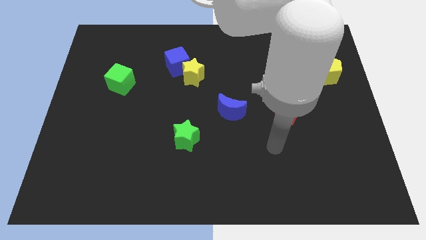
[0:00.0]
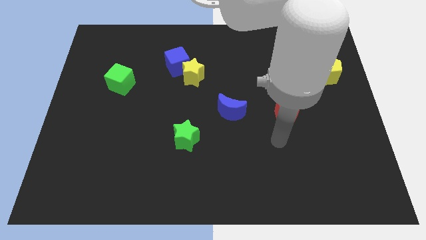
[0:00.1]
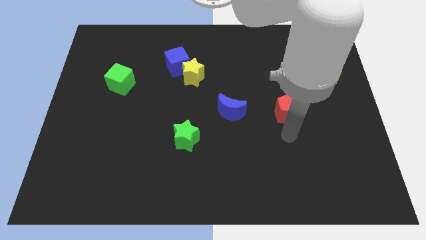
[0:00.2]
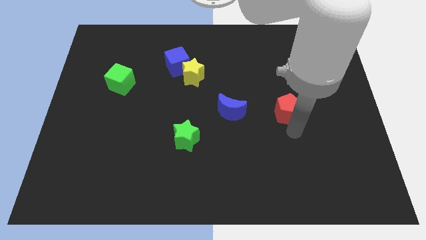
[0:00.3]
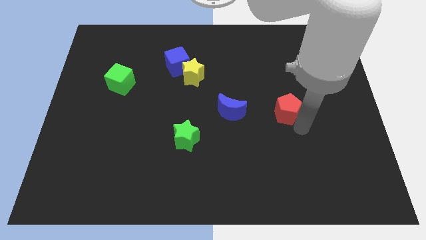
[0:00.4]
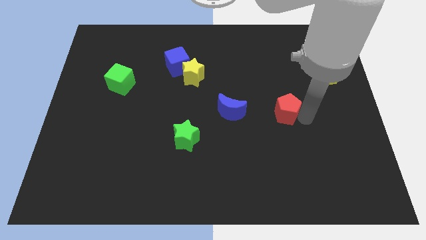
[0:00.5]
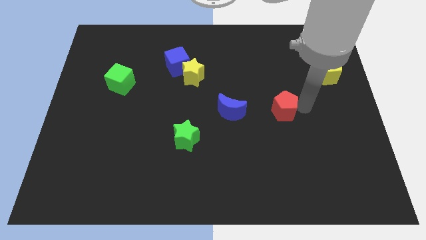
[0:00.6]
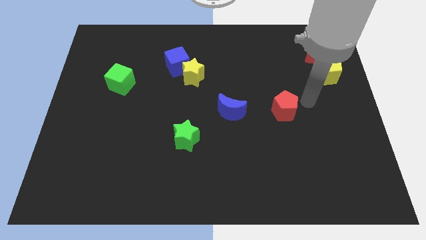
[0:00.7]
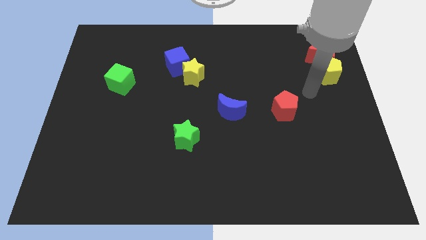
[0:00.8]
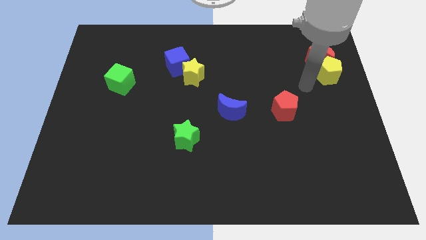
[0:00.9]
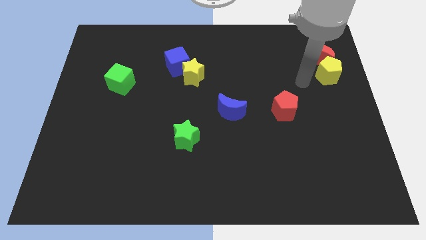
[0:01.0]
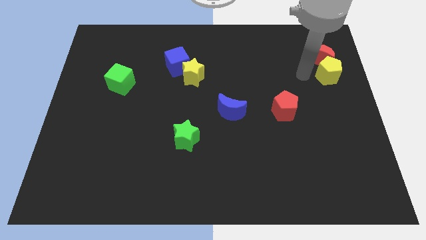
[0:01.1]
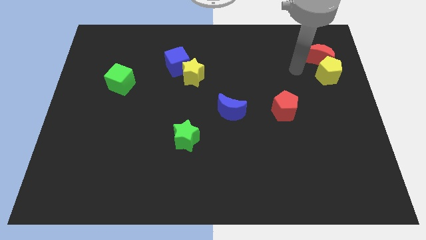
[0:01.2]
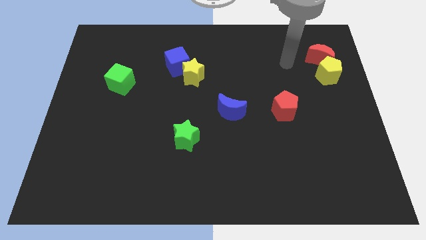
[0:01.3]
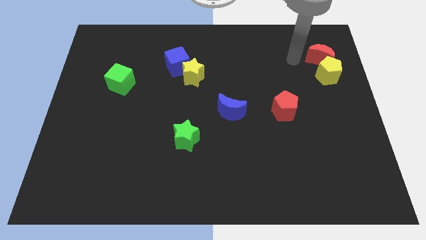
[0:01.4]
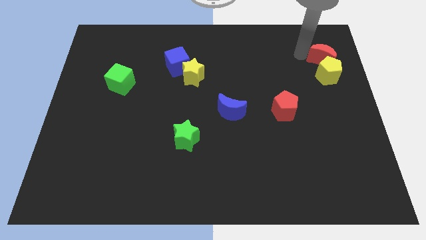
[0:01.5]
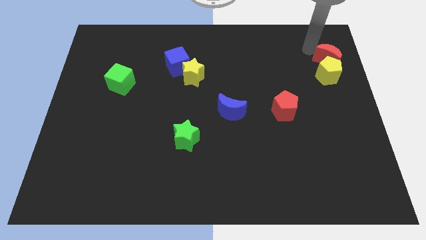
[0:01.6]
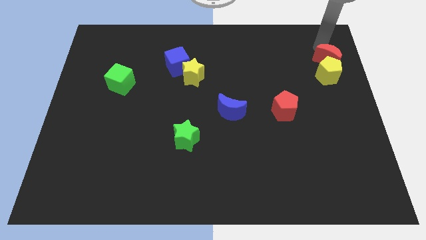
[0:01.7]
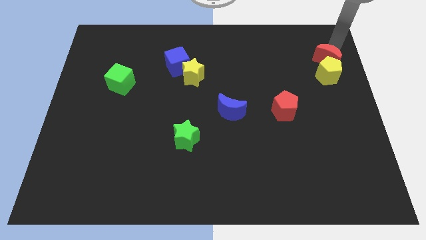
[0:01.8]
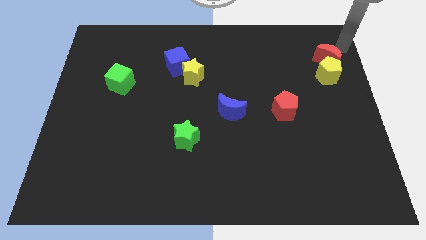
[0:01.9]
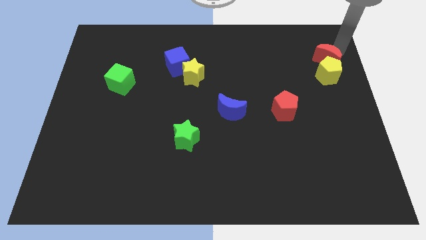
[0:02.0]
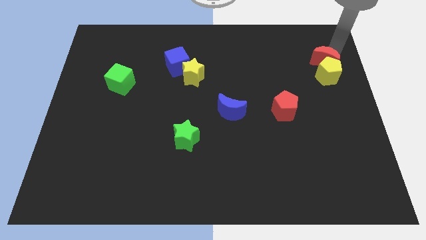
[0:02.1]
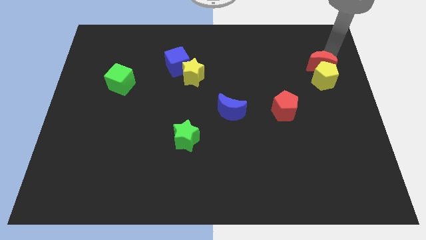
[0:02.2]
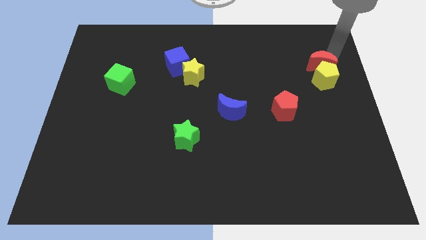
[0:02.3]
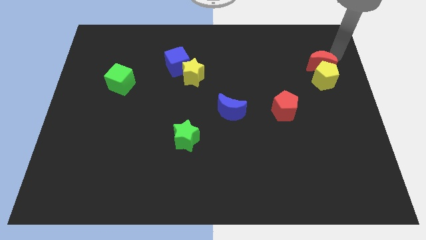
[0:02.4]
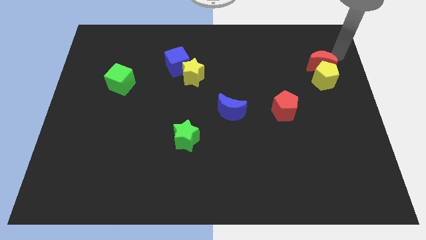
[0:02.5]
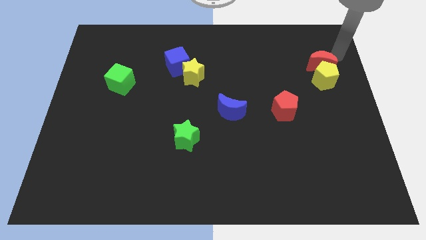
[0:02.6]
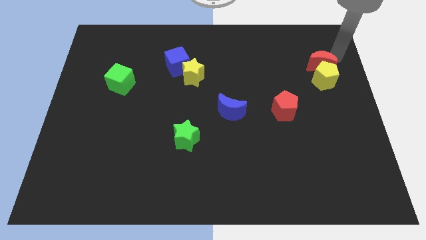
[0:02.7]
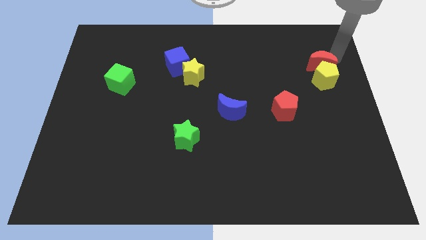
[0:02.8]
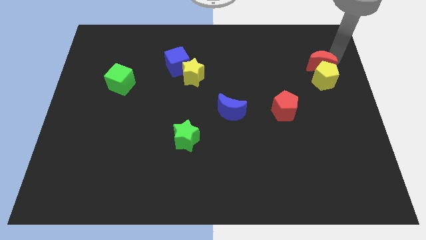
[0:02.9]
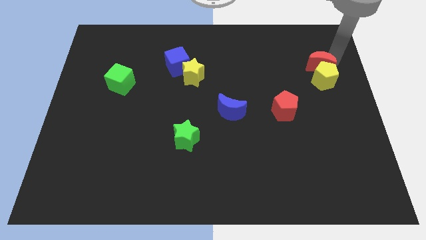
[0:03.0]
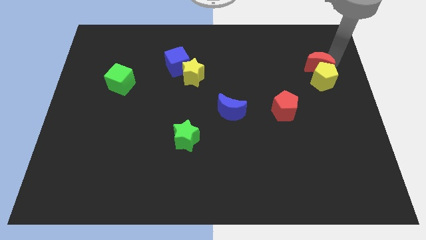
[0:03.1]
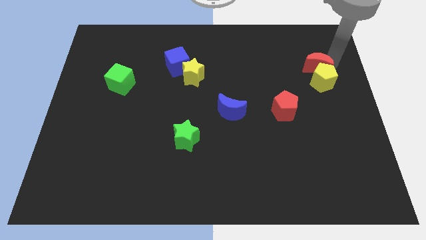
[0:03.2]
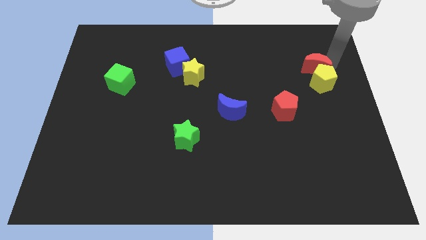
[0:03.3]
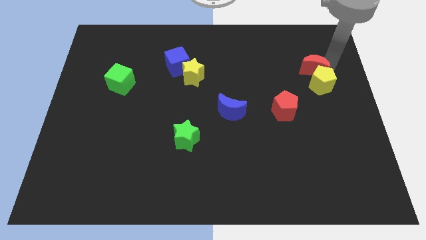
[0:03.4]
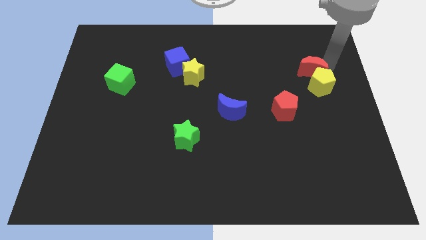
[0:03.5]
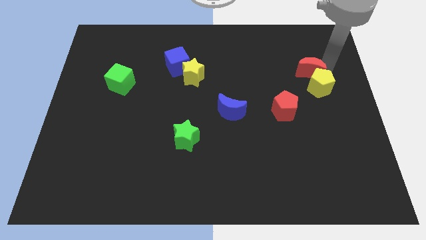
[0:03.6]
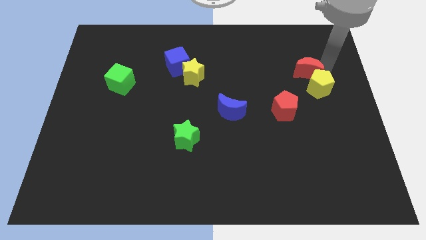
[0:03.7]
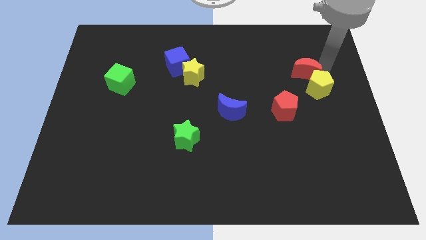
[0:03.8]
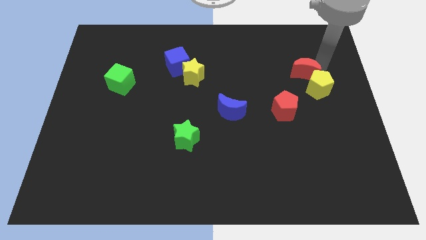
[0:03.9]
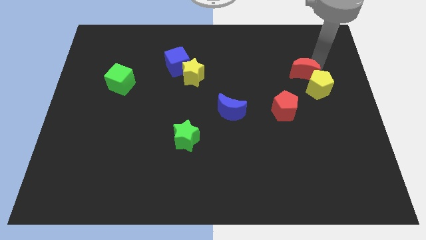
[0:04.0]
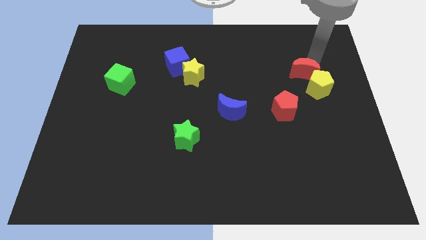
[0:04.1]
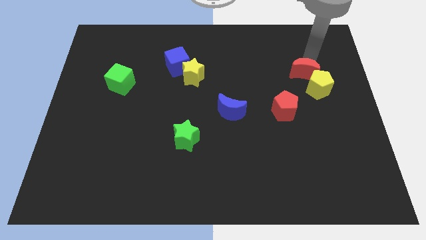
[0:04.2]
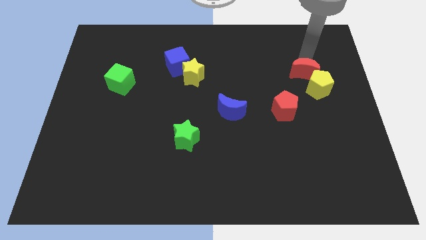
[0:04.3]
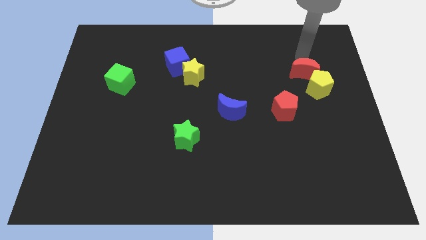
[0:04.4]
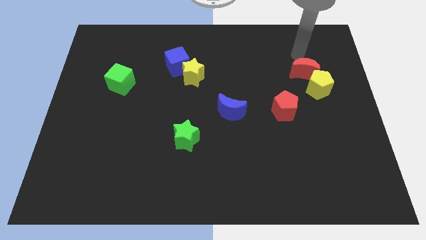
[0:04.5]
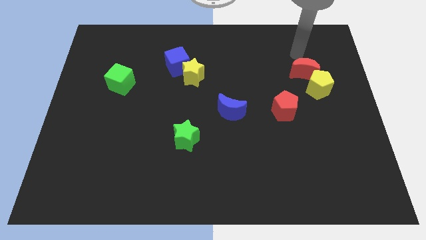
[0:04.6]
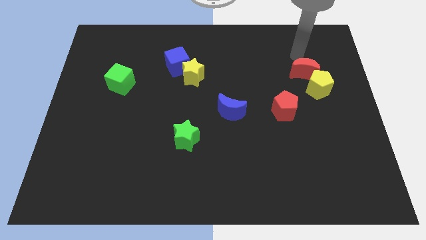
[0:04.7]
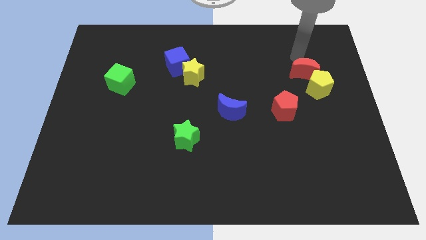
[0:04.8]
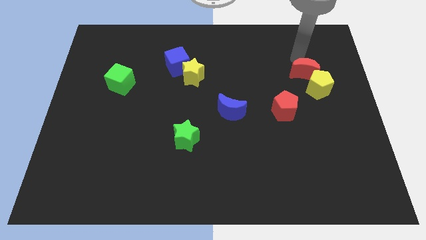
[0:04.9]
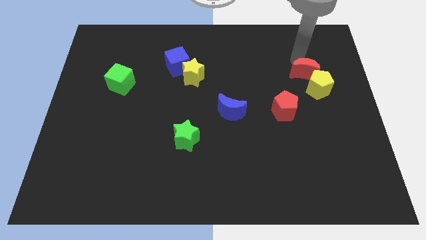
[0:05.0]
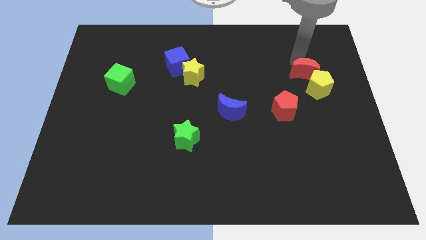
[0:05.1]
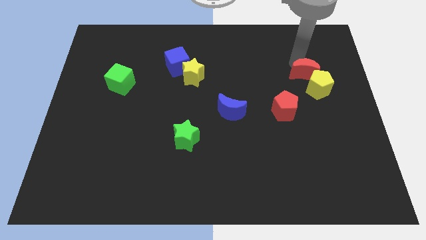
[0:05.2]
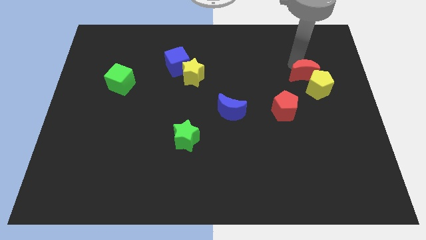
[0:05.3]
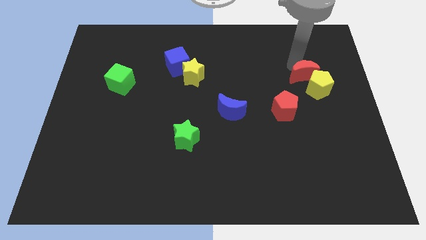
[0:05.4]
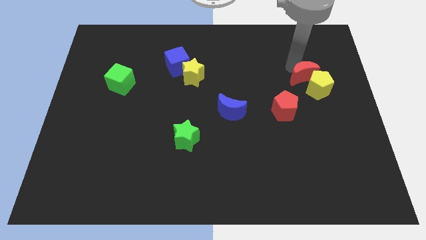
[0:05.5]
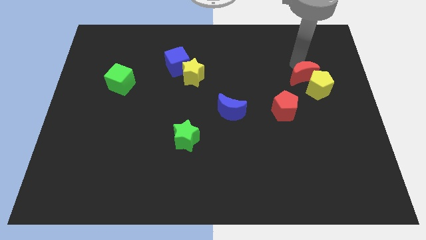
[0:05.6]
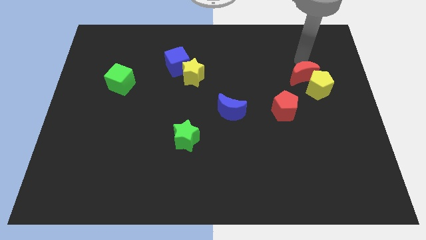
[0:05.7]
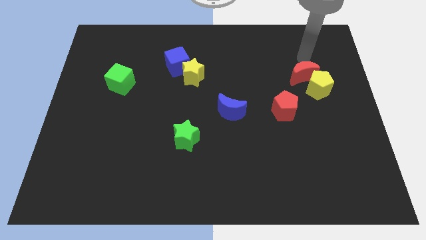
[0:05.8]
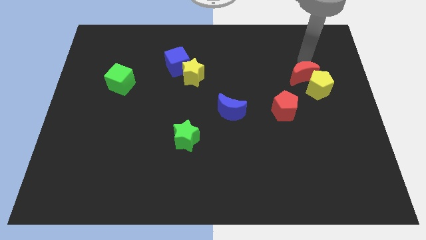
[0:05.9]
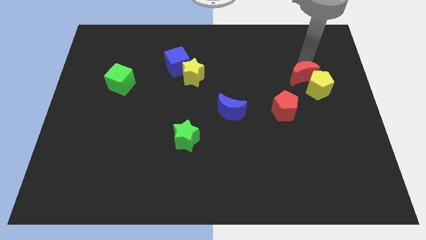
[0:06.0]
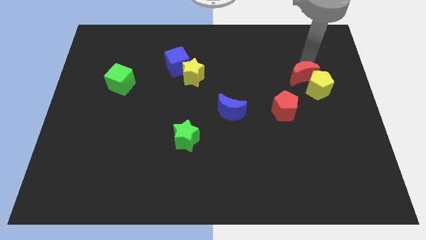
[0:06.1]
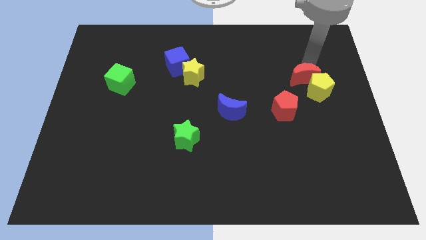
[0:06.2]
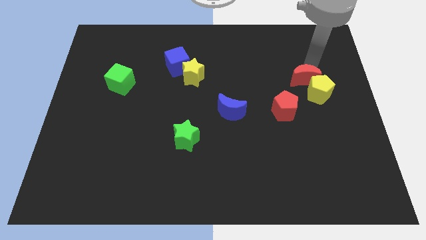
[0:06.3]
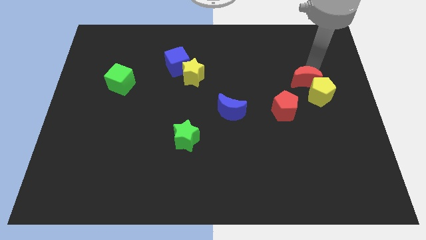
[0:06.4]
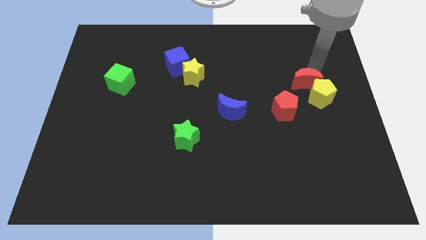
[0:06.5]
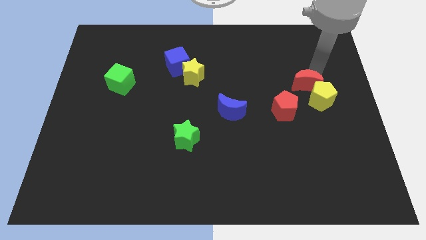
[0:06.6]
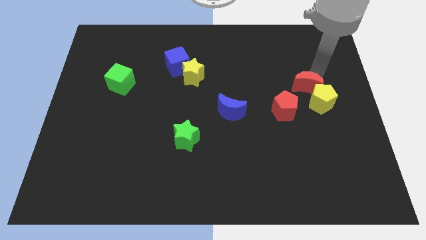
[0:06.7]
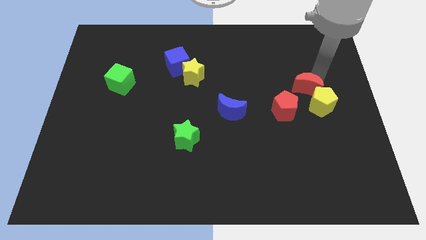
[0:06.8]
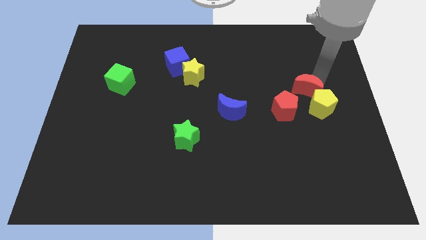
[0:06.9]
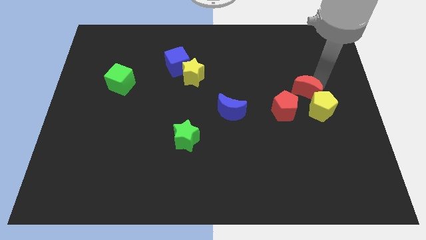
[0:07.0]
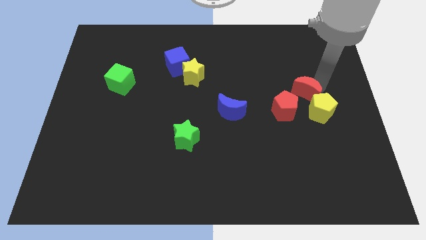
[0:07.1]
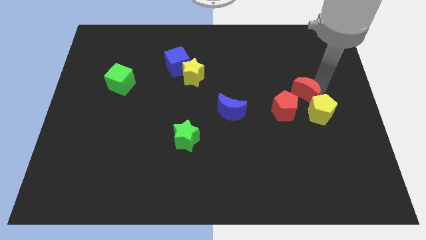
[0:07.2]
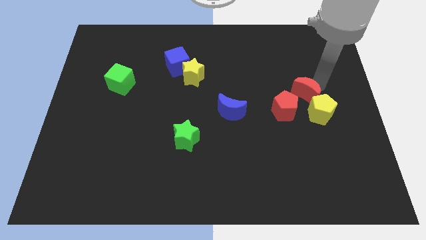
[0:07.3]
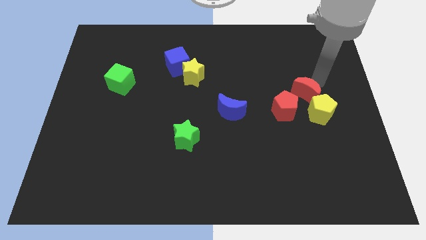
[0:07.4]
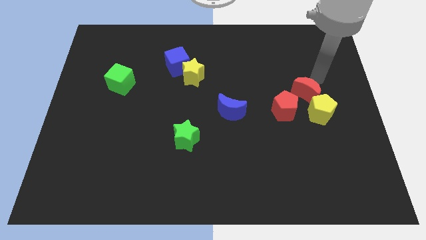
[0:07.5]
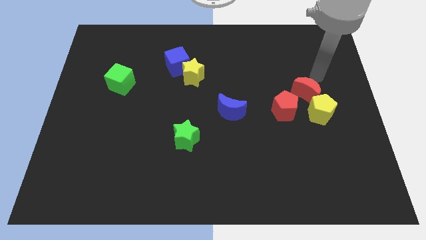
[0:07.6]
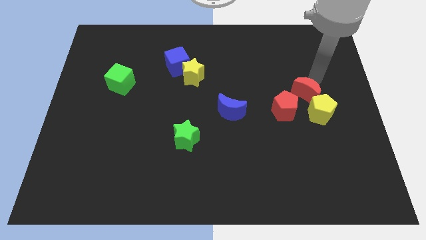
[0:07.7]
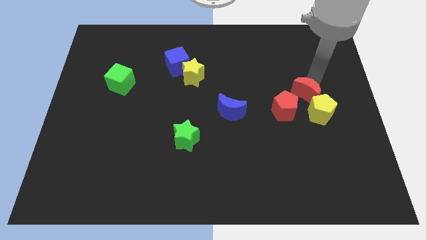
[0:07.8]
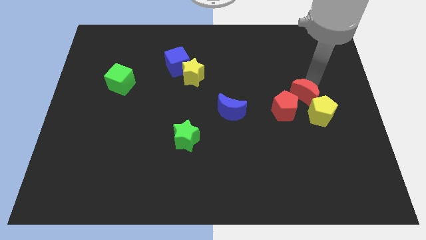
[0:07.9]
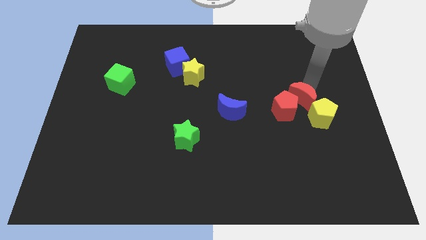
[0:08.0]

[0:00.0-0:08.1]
move the red moon next to the red pentagon
